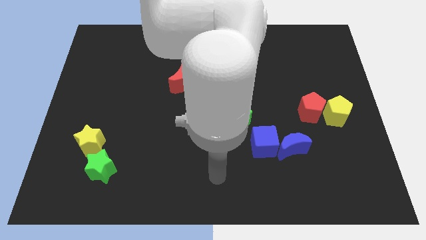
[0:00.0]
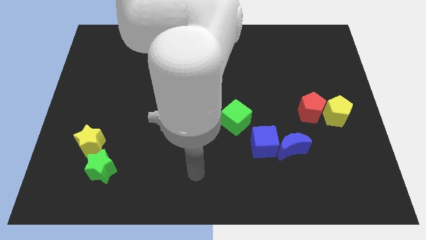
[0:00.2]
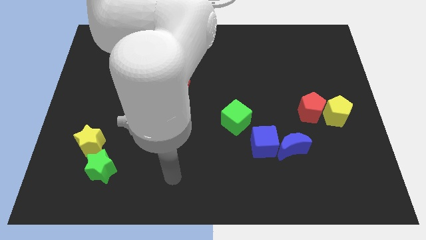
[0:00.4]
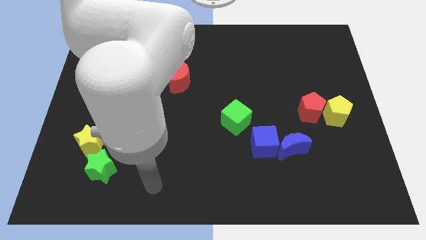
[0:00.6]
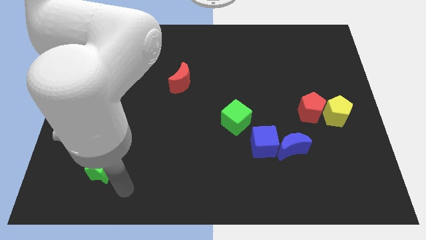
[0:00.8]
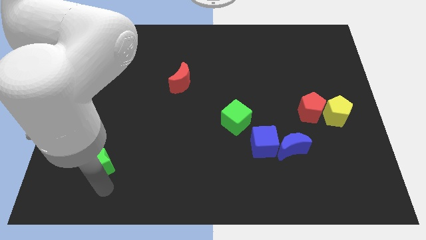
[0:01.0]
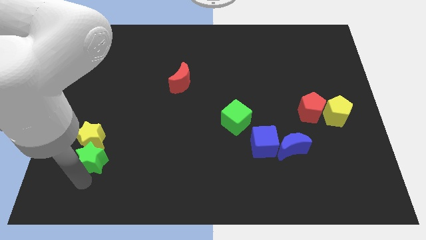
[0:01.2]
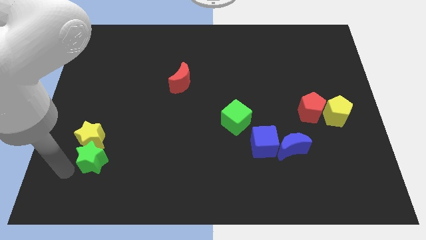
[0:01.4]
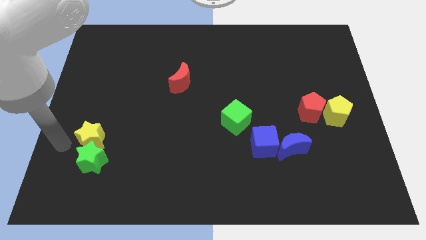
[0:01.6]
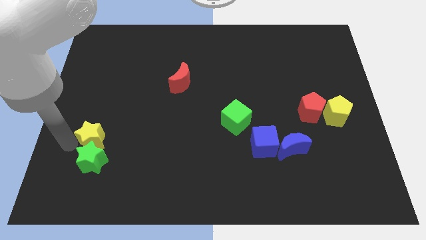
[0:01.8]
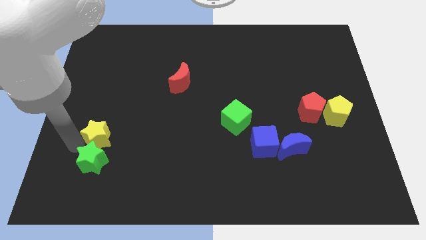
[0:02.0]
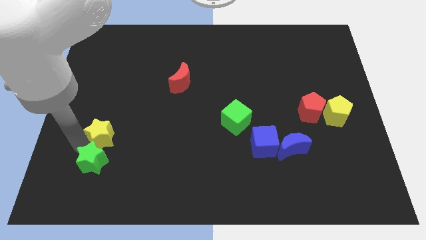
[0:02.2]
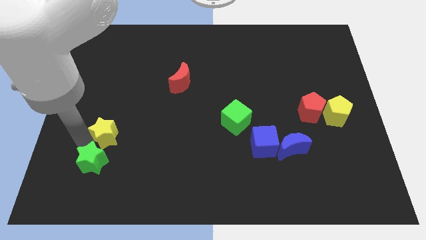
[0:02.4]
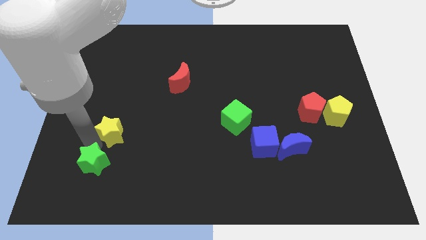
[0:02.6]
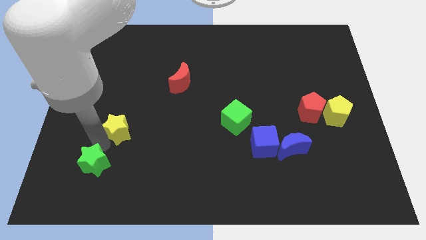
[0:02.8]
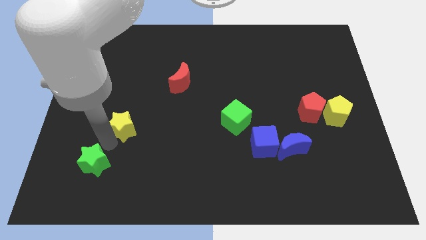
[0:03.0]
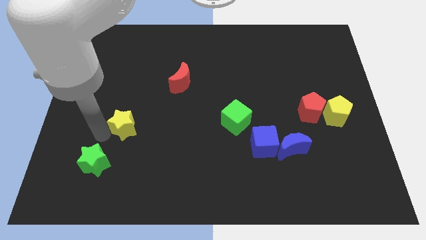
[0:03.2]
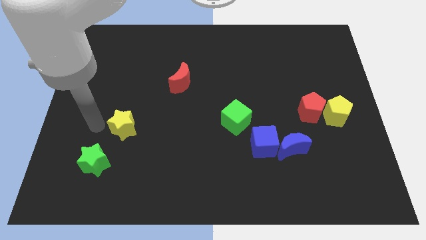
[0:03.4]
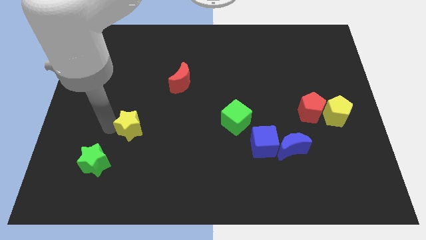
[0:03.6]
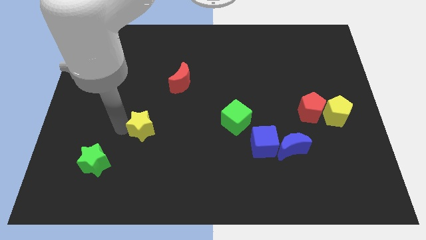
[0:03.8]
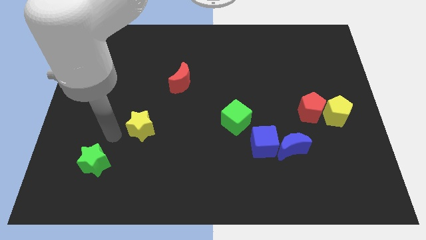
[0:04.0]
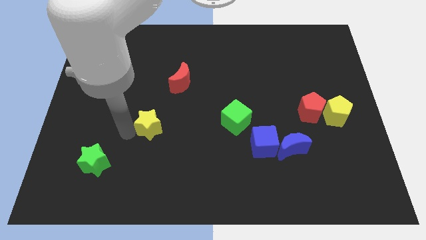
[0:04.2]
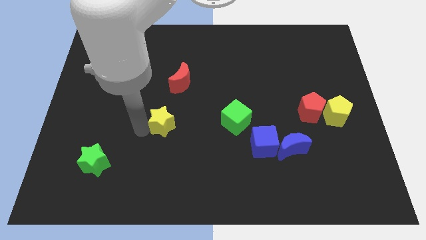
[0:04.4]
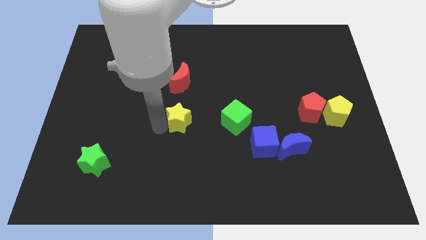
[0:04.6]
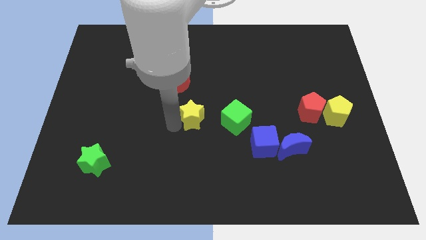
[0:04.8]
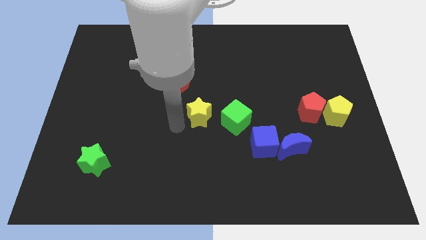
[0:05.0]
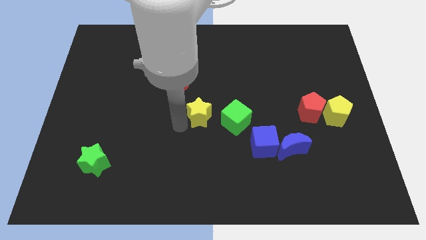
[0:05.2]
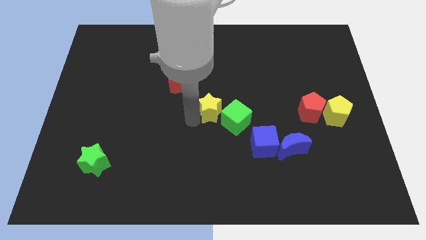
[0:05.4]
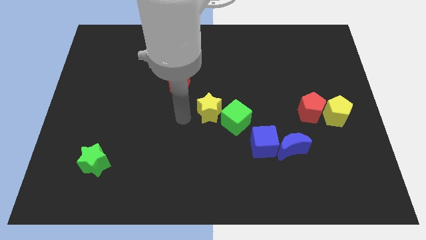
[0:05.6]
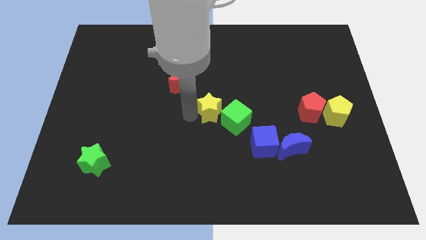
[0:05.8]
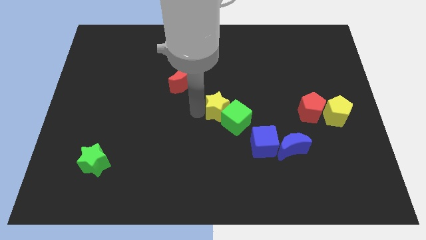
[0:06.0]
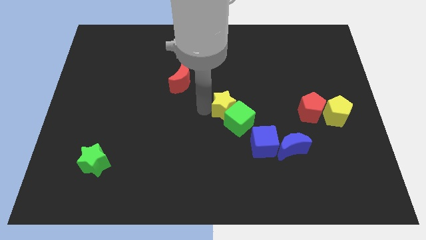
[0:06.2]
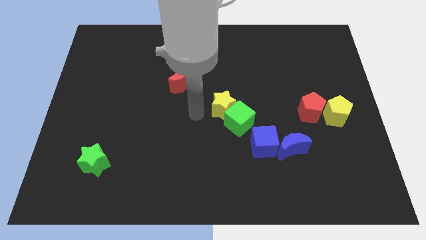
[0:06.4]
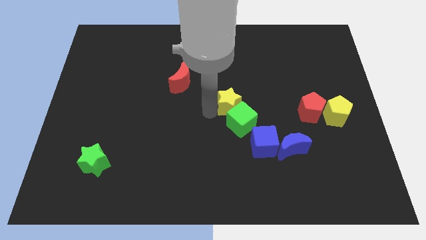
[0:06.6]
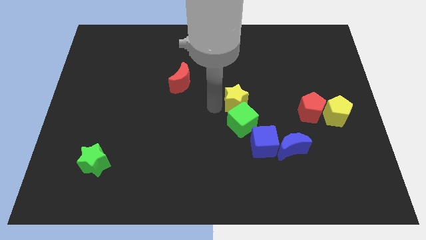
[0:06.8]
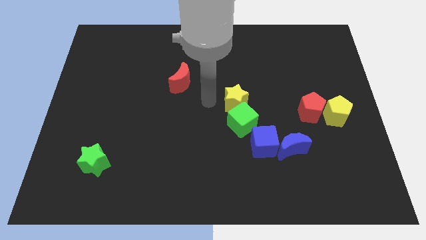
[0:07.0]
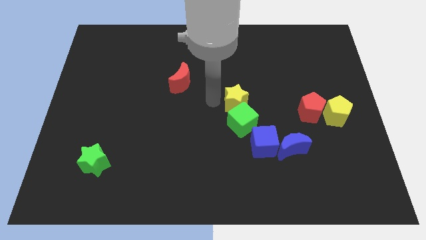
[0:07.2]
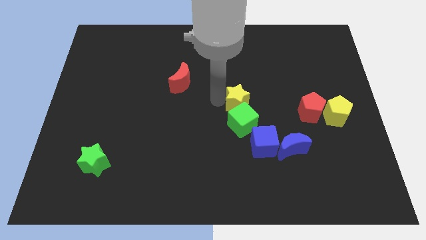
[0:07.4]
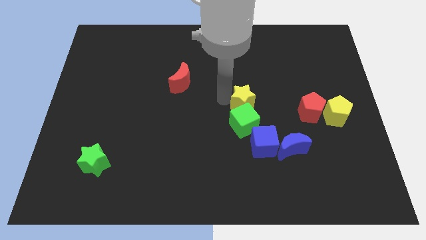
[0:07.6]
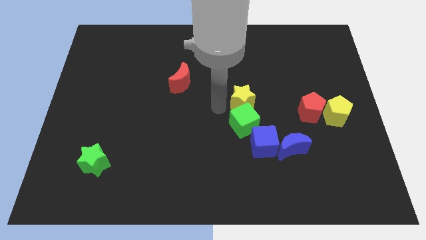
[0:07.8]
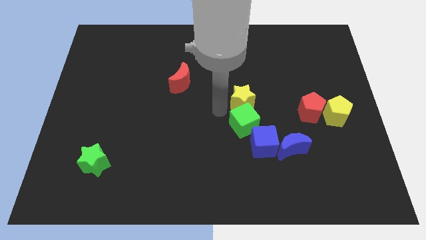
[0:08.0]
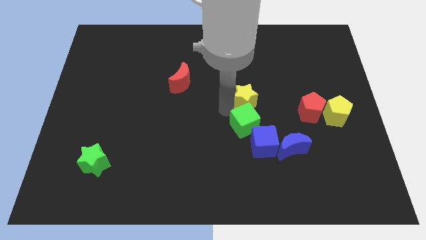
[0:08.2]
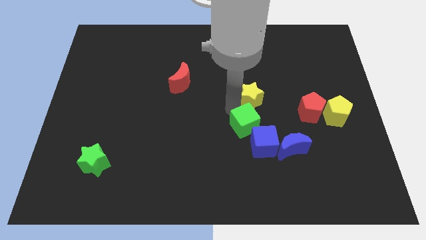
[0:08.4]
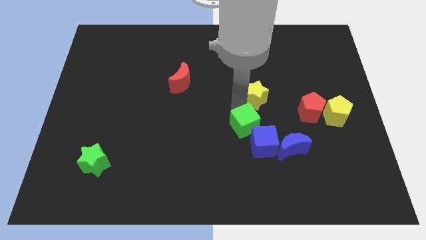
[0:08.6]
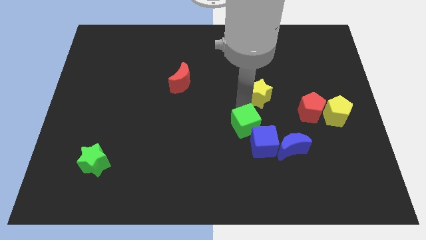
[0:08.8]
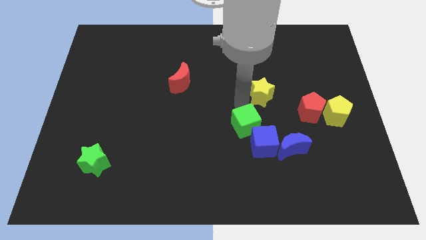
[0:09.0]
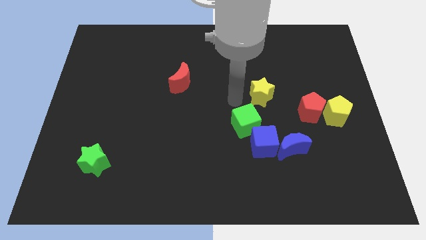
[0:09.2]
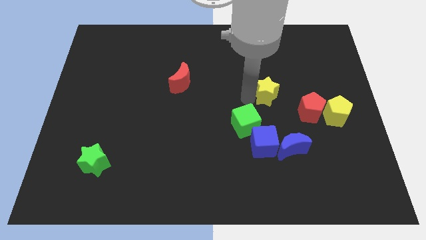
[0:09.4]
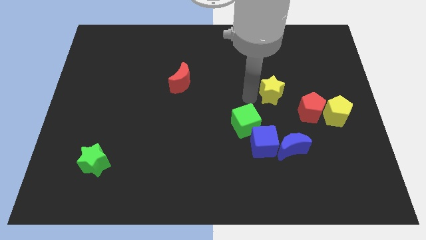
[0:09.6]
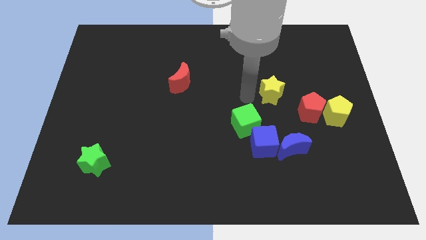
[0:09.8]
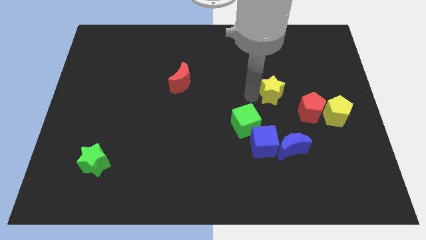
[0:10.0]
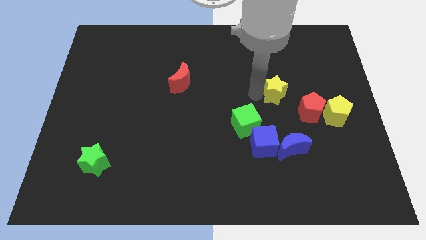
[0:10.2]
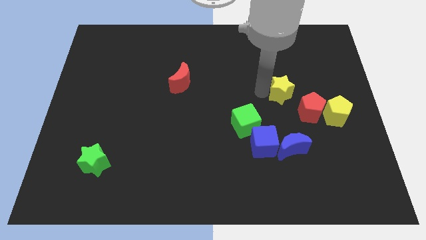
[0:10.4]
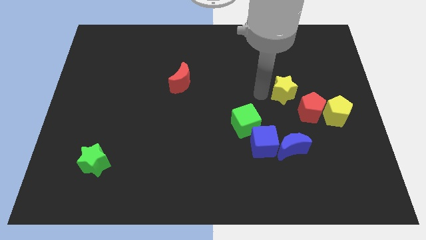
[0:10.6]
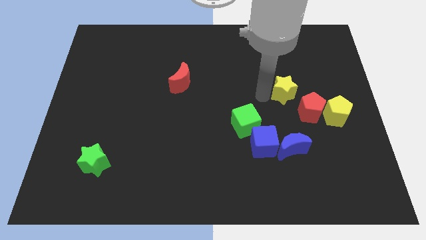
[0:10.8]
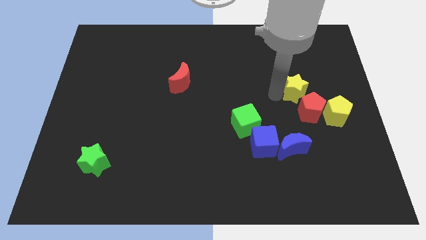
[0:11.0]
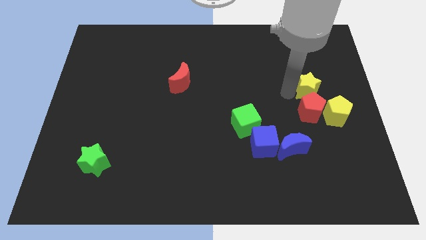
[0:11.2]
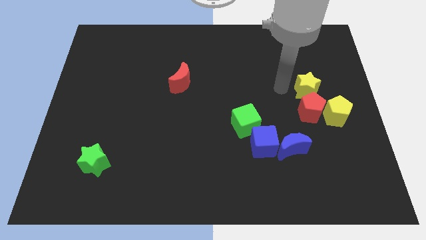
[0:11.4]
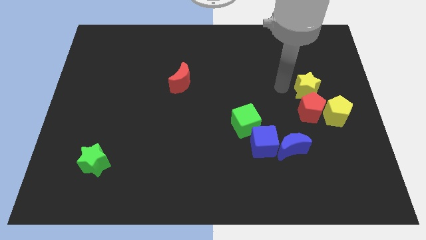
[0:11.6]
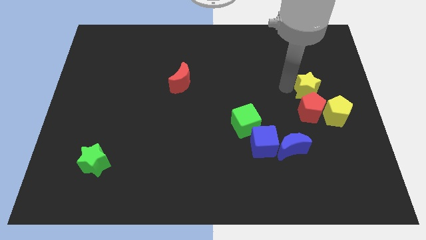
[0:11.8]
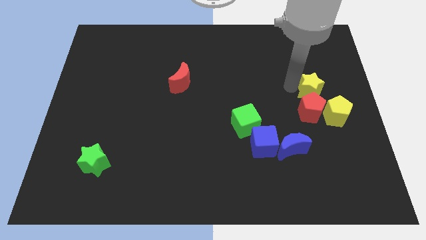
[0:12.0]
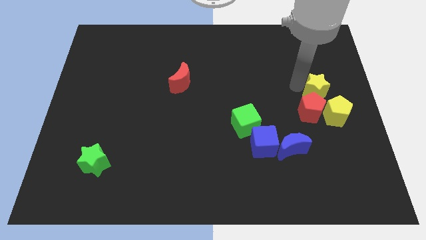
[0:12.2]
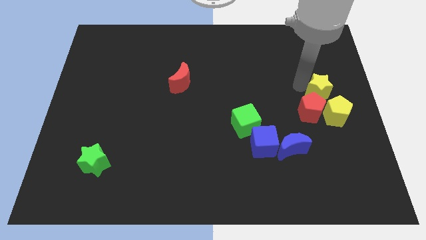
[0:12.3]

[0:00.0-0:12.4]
put the yellow star to the right side
